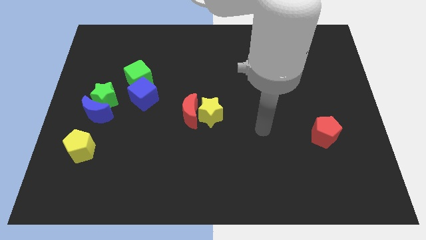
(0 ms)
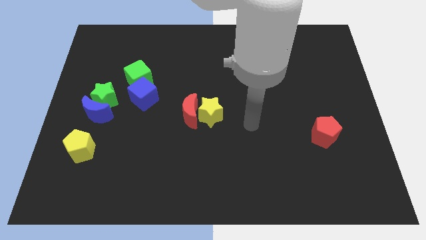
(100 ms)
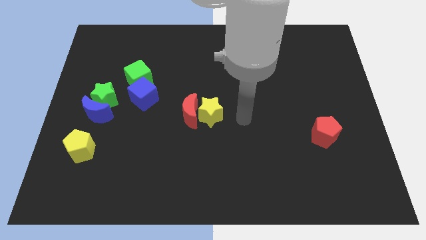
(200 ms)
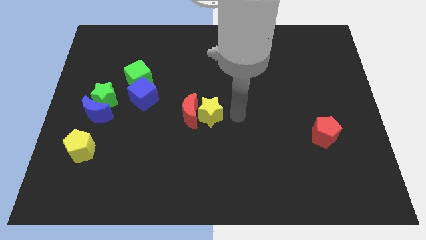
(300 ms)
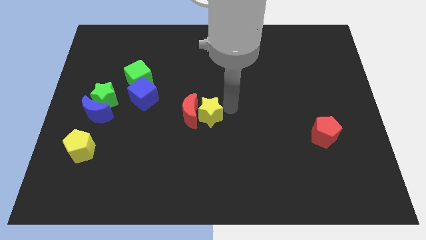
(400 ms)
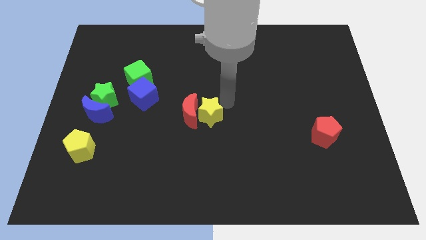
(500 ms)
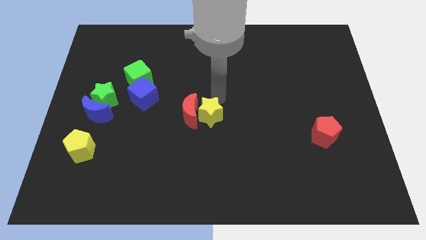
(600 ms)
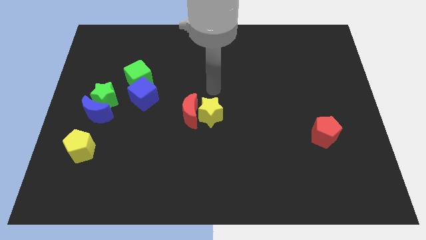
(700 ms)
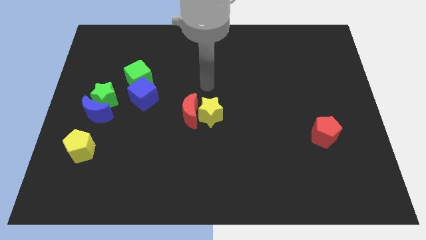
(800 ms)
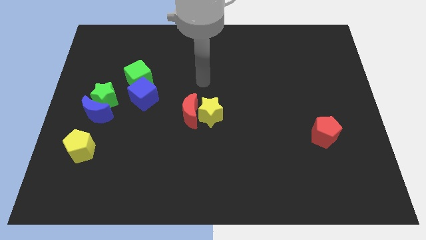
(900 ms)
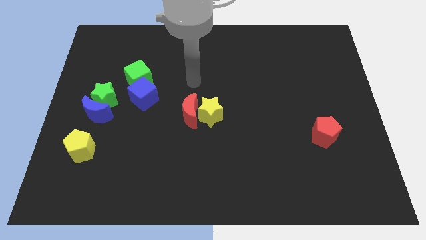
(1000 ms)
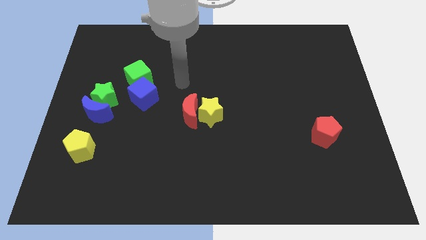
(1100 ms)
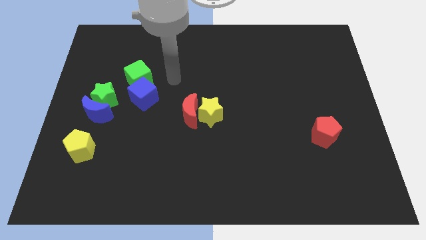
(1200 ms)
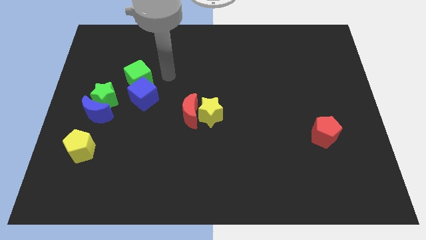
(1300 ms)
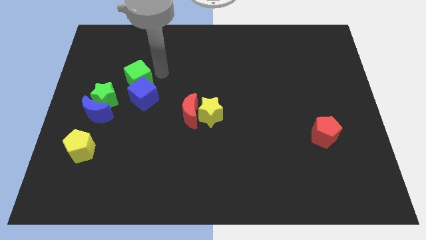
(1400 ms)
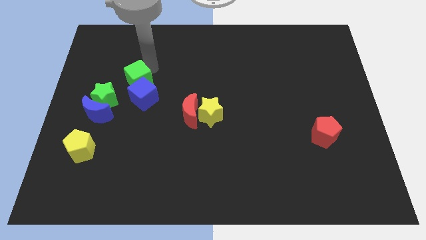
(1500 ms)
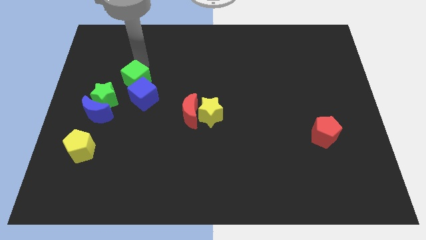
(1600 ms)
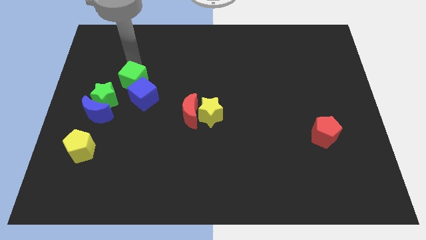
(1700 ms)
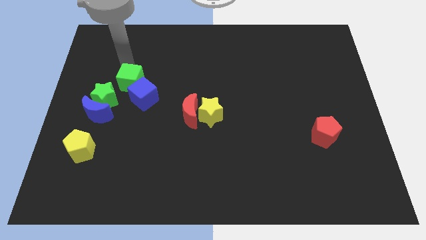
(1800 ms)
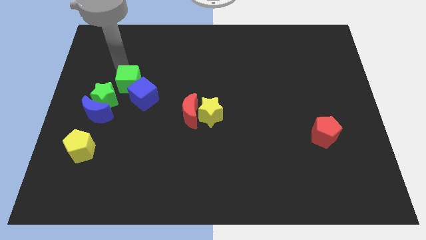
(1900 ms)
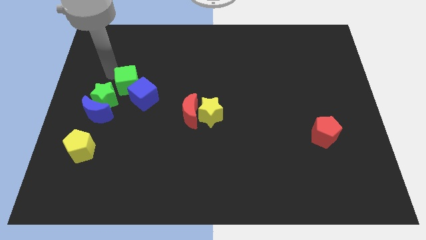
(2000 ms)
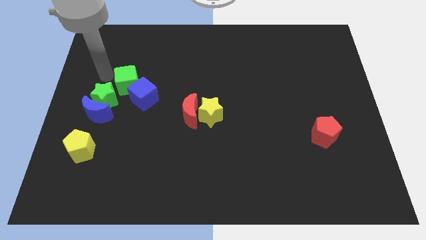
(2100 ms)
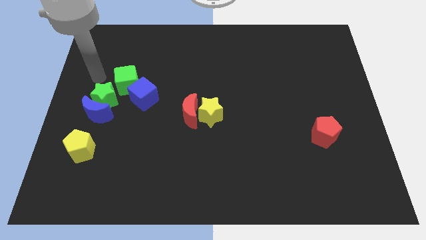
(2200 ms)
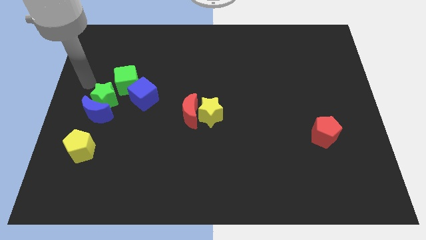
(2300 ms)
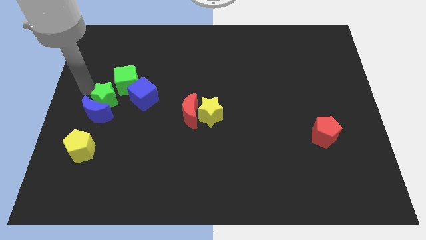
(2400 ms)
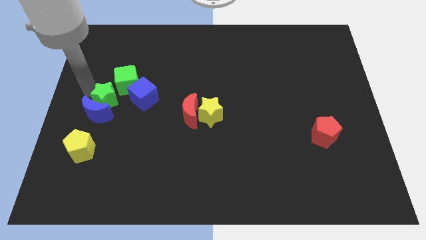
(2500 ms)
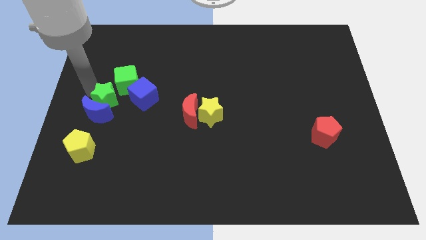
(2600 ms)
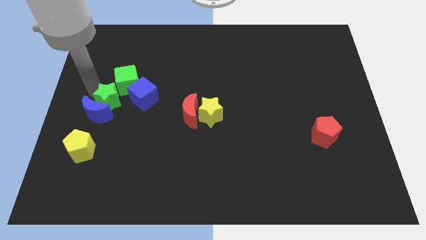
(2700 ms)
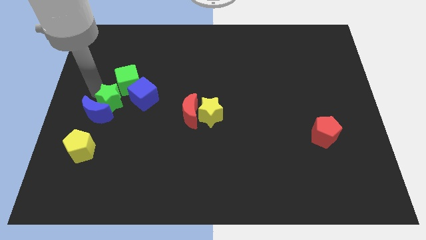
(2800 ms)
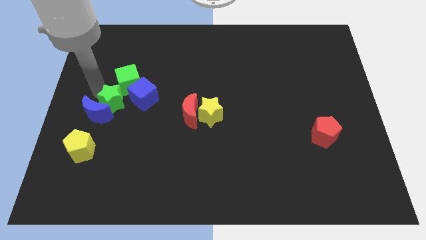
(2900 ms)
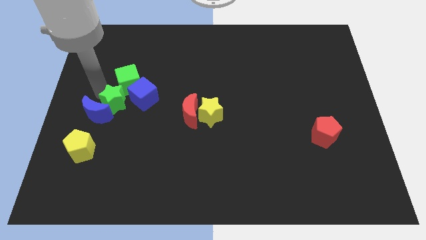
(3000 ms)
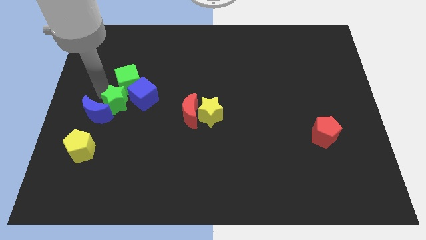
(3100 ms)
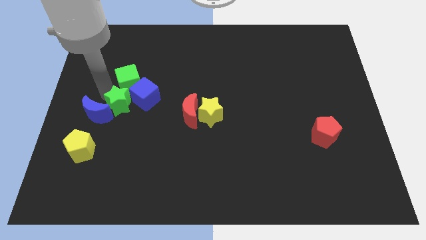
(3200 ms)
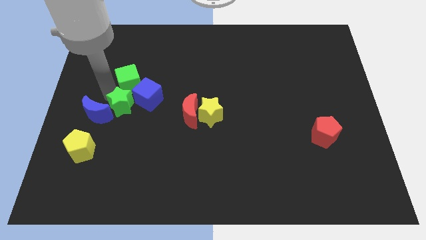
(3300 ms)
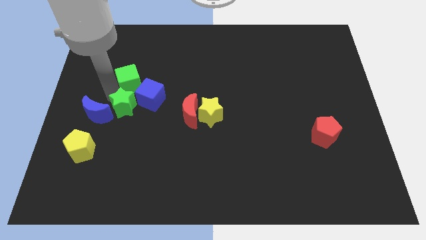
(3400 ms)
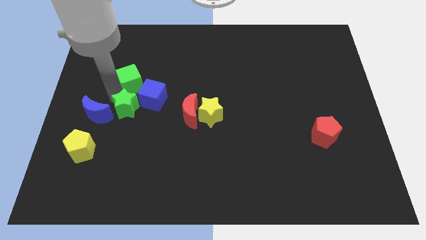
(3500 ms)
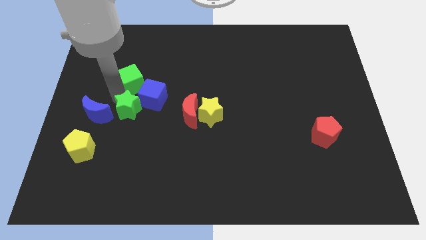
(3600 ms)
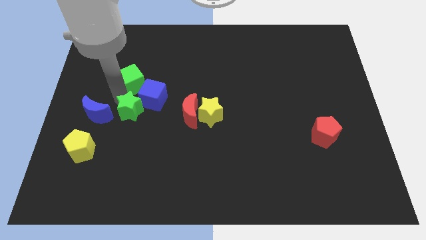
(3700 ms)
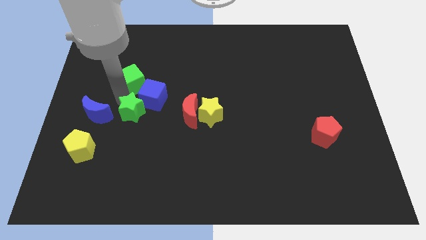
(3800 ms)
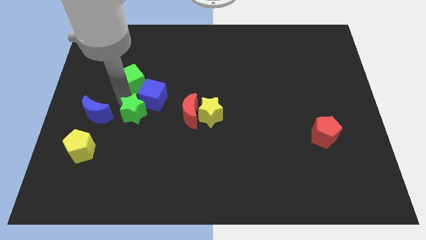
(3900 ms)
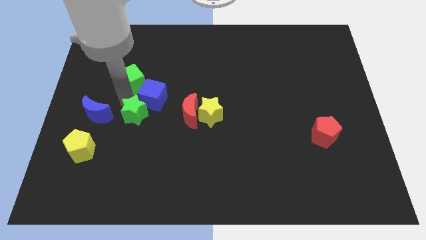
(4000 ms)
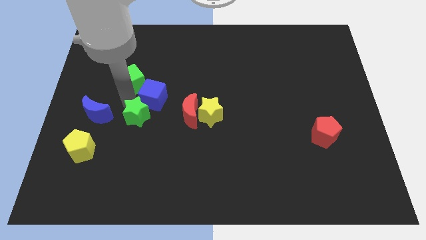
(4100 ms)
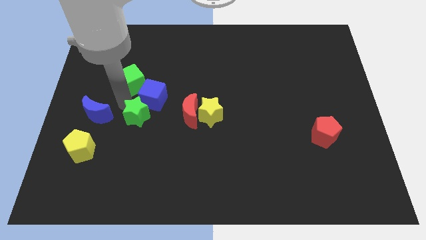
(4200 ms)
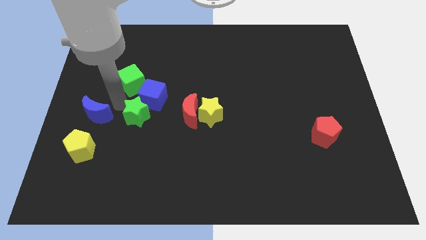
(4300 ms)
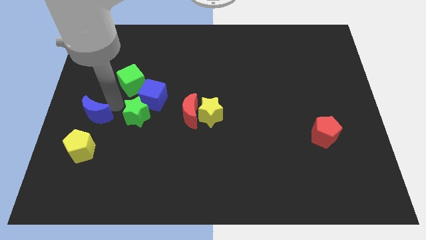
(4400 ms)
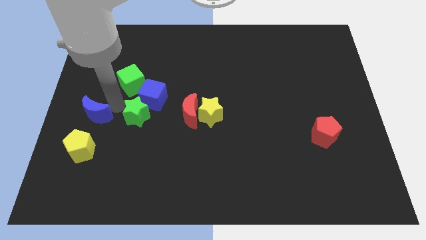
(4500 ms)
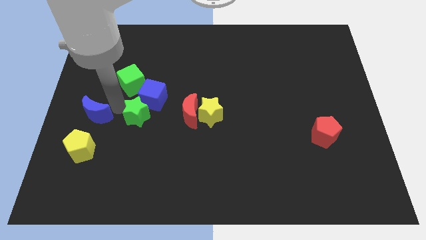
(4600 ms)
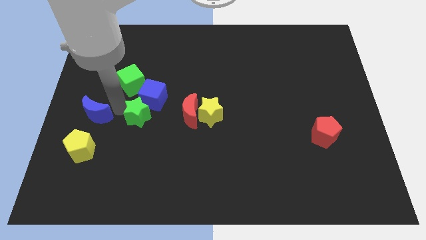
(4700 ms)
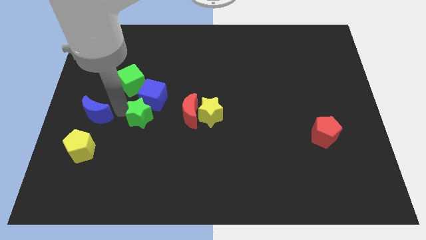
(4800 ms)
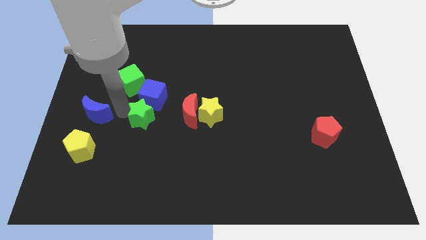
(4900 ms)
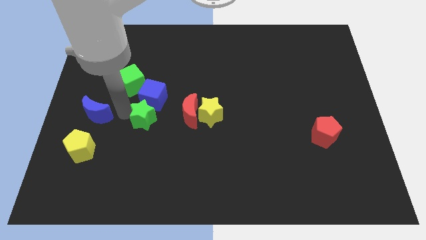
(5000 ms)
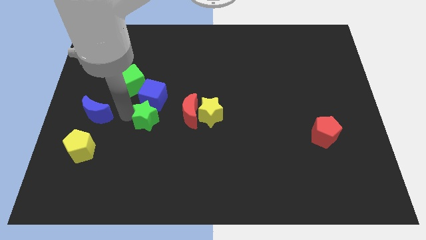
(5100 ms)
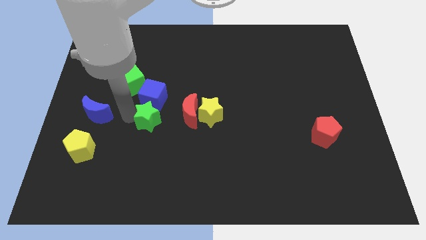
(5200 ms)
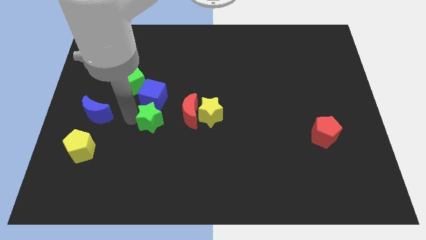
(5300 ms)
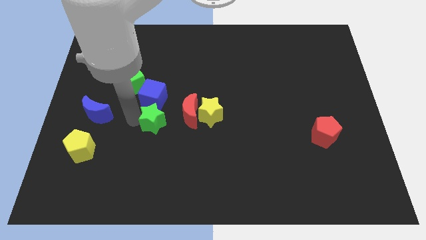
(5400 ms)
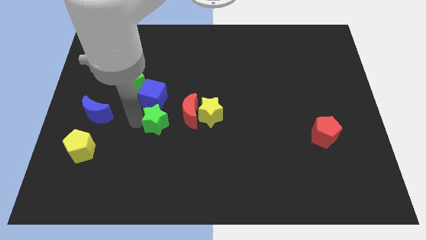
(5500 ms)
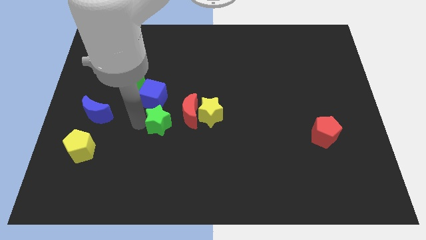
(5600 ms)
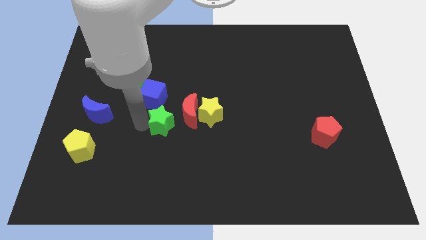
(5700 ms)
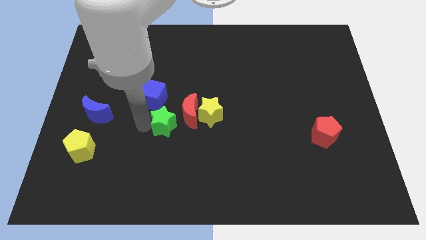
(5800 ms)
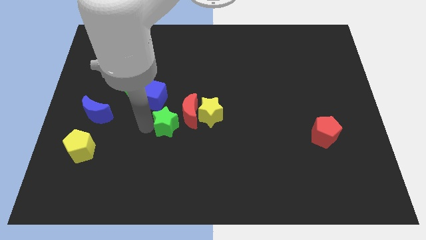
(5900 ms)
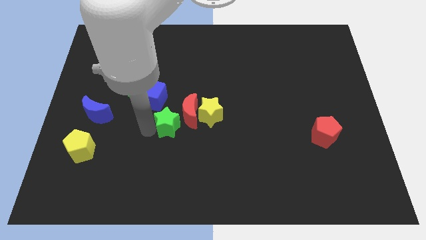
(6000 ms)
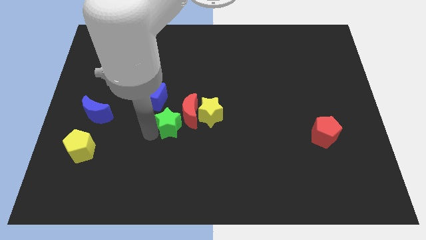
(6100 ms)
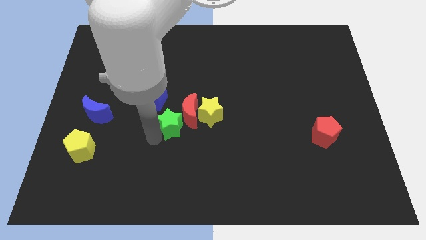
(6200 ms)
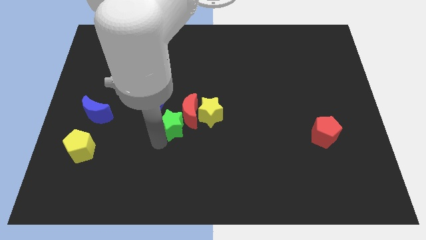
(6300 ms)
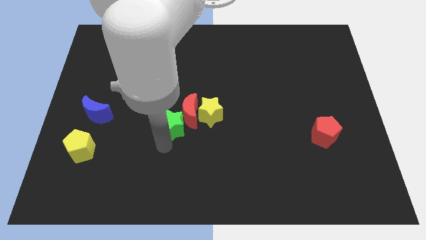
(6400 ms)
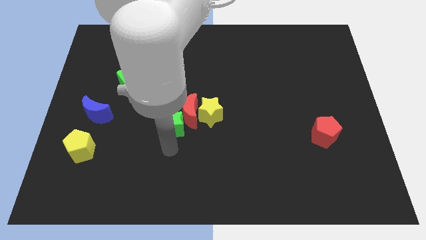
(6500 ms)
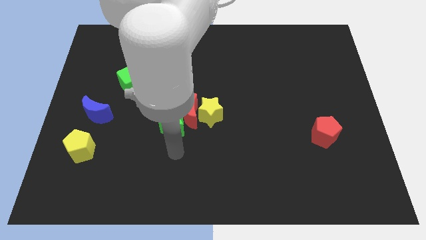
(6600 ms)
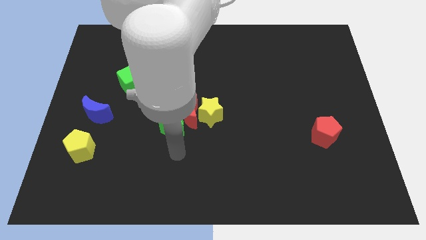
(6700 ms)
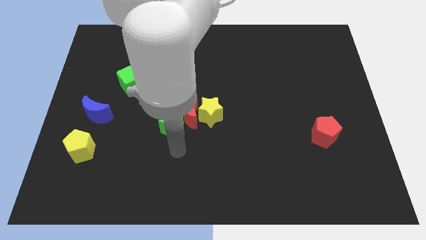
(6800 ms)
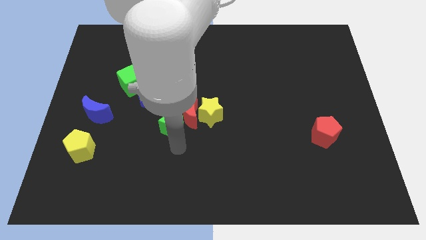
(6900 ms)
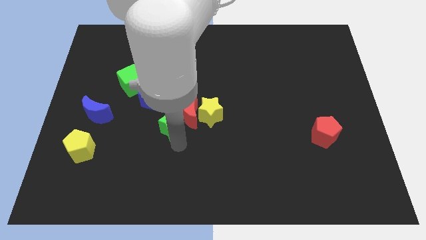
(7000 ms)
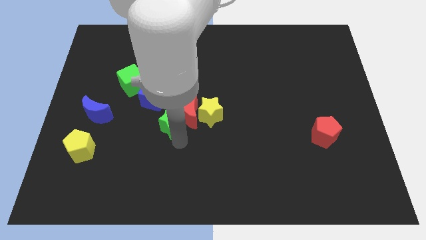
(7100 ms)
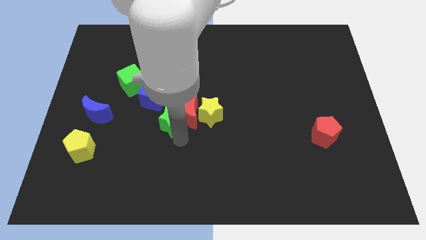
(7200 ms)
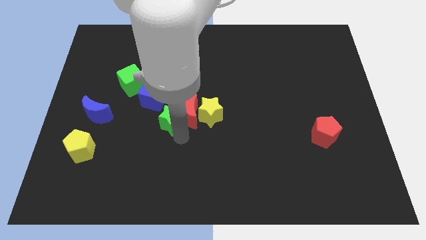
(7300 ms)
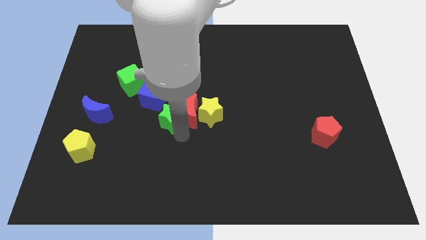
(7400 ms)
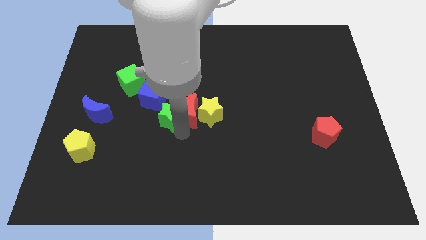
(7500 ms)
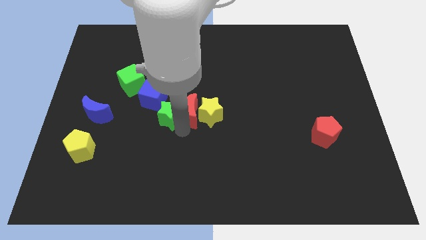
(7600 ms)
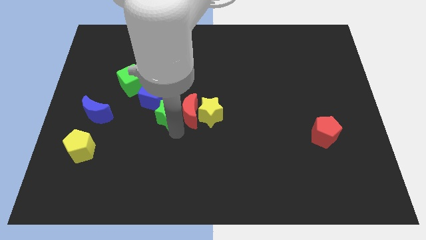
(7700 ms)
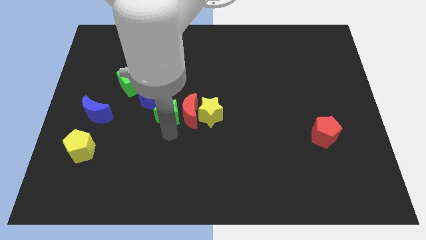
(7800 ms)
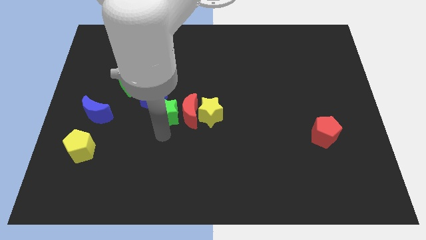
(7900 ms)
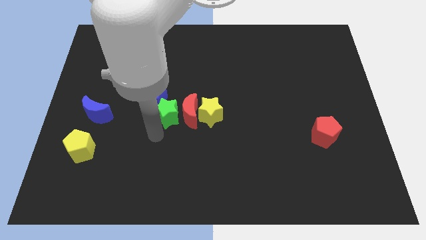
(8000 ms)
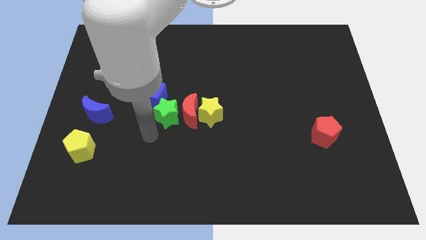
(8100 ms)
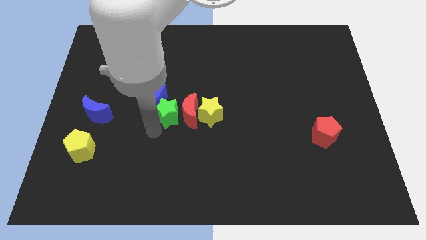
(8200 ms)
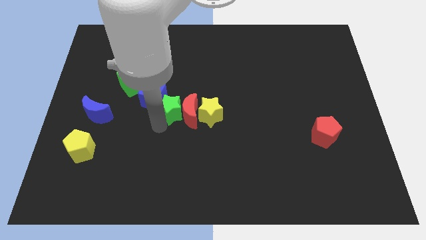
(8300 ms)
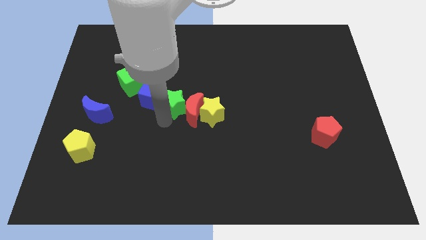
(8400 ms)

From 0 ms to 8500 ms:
push the green star to the top left of the yellow star
